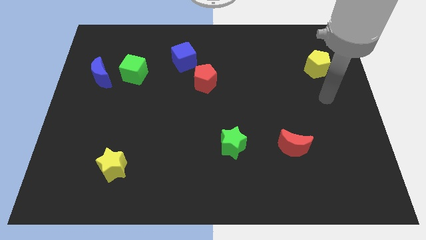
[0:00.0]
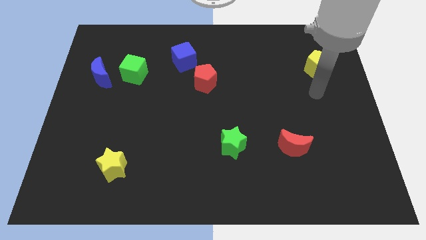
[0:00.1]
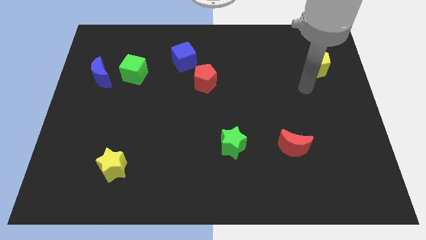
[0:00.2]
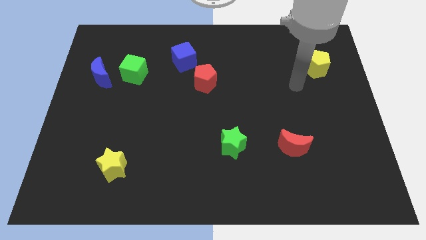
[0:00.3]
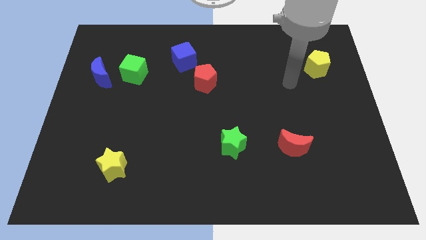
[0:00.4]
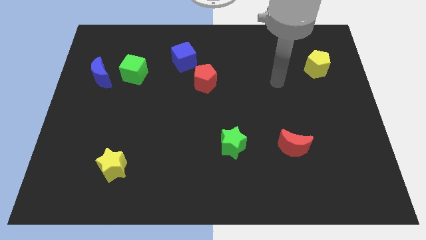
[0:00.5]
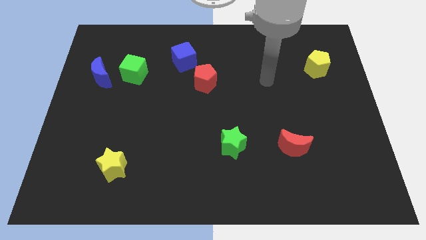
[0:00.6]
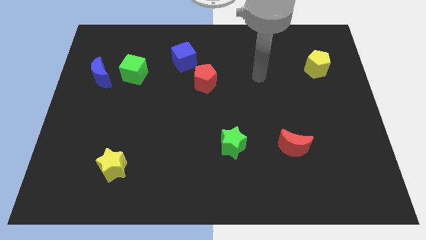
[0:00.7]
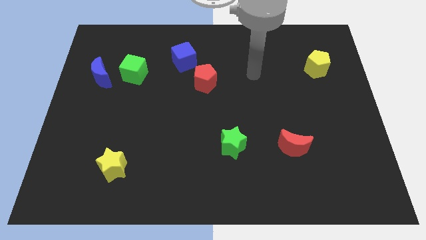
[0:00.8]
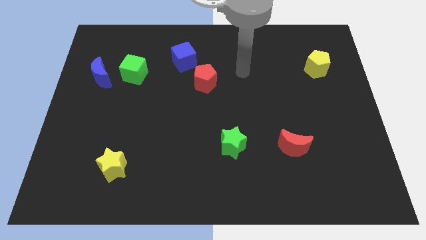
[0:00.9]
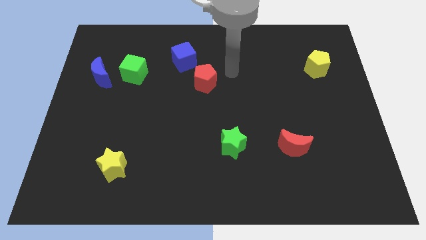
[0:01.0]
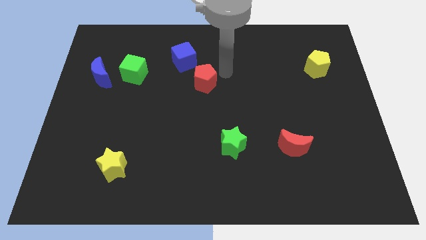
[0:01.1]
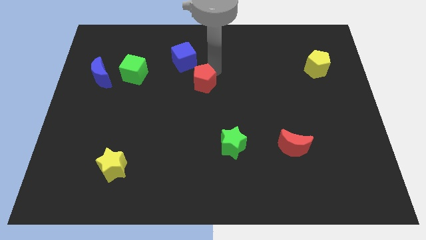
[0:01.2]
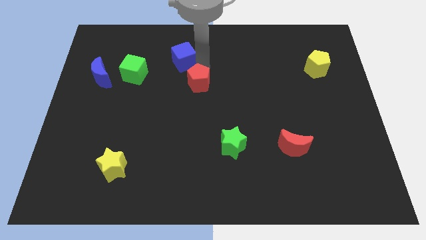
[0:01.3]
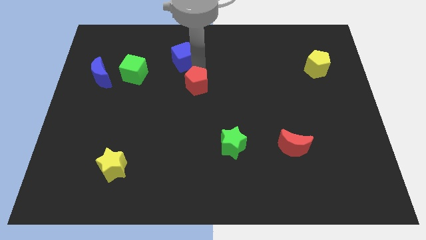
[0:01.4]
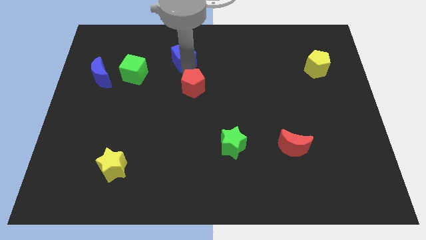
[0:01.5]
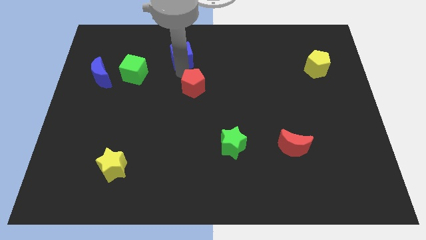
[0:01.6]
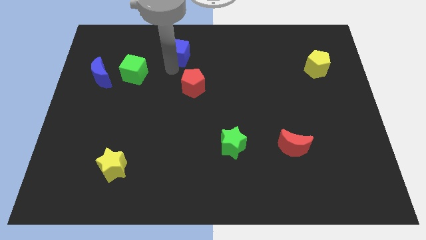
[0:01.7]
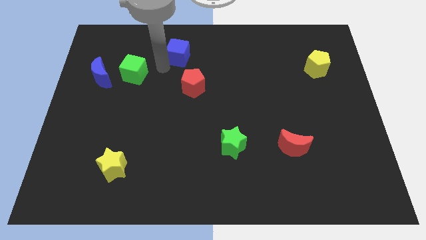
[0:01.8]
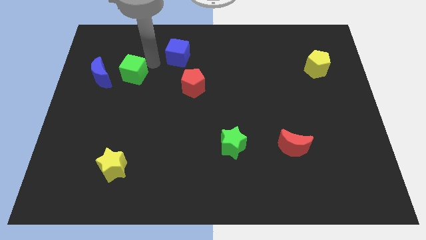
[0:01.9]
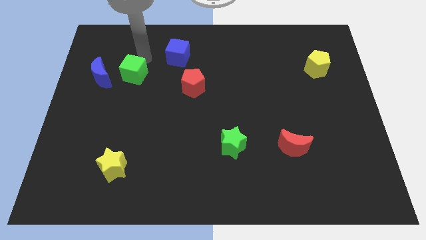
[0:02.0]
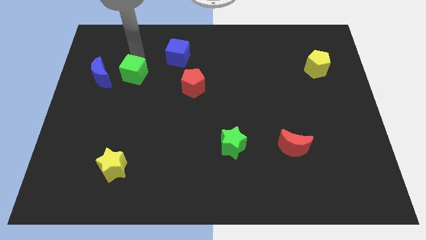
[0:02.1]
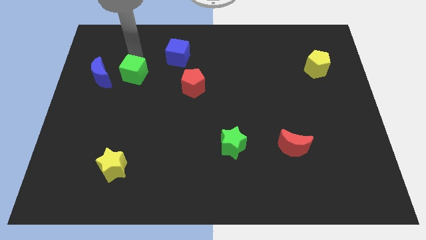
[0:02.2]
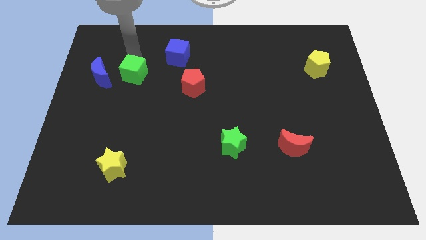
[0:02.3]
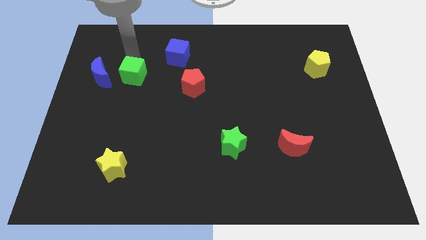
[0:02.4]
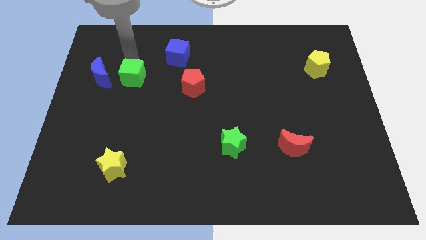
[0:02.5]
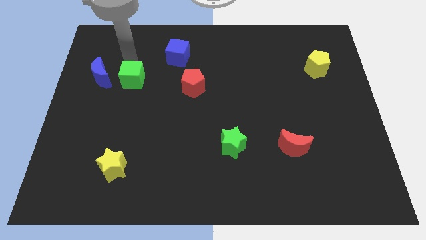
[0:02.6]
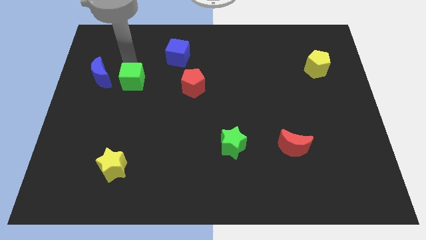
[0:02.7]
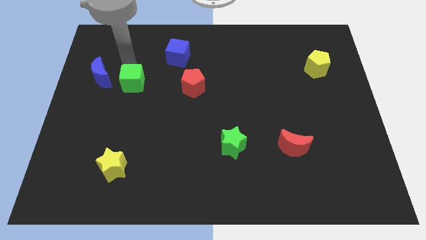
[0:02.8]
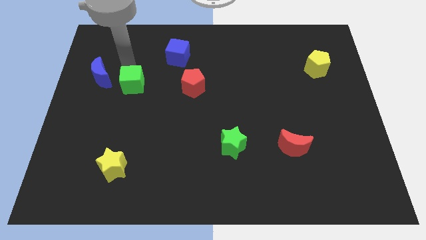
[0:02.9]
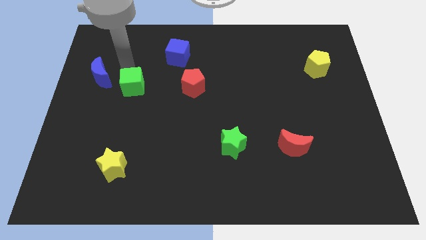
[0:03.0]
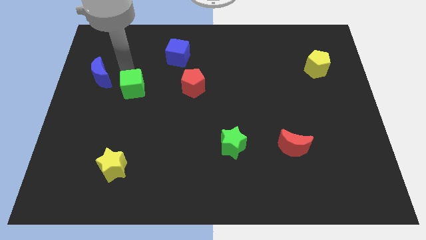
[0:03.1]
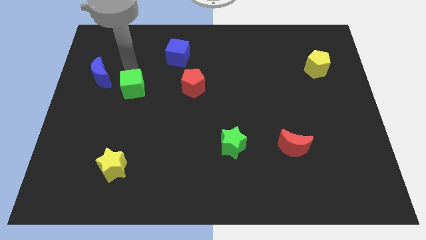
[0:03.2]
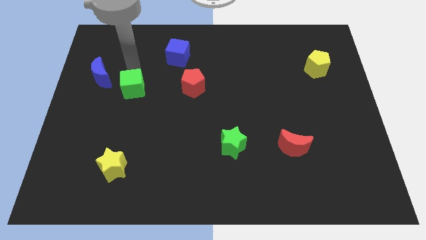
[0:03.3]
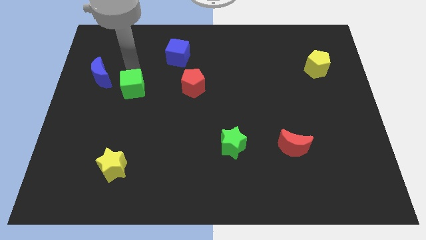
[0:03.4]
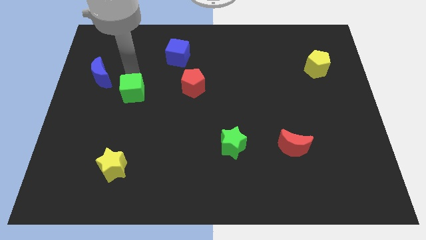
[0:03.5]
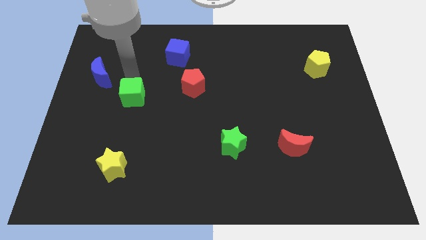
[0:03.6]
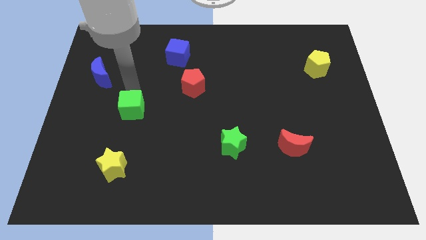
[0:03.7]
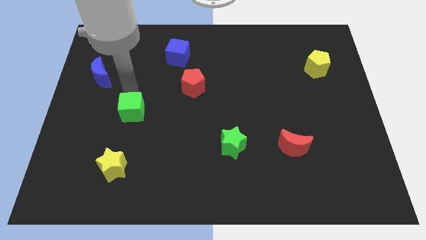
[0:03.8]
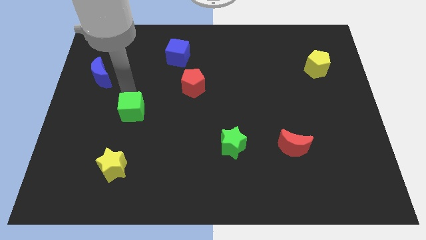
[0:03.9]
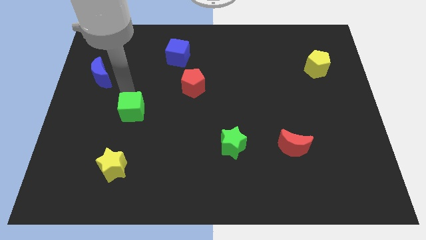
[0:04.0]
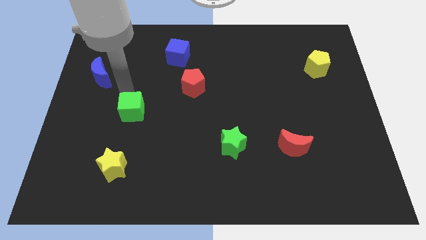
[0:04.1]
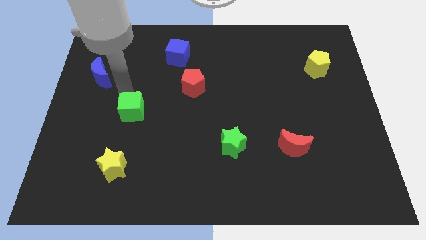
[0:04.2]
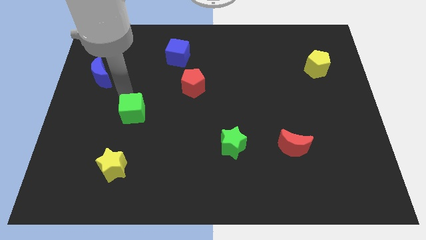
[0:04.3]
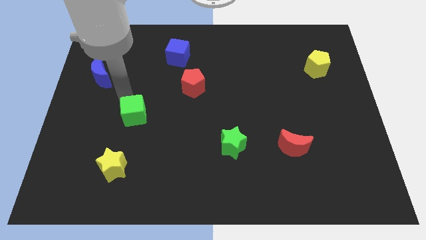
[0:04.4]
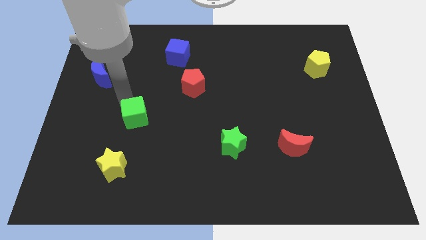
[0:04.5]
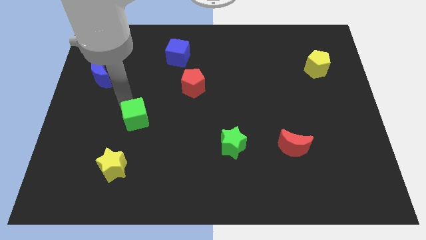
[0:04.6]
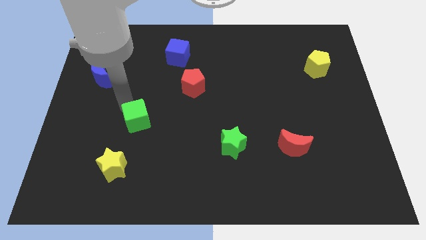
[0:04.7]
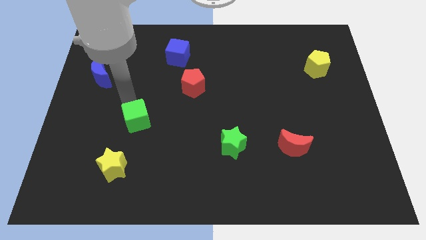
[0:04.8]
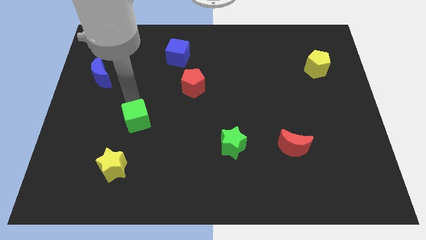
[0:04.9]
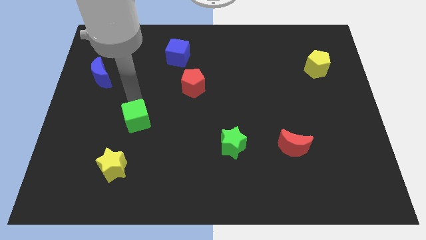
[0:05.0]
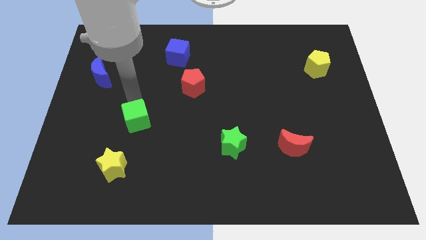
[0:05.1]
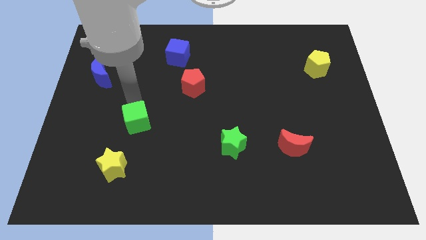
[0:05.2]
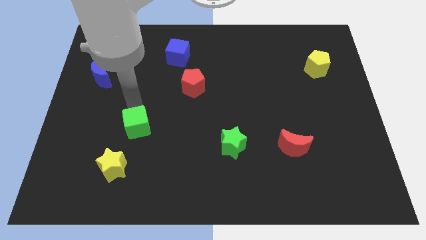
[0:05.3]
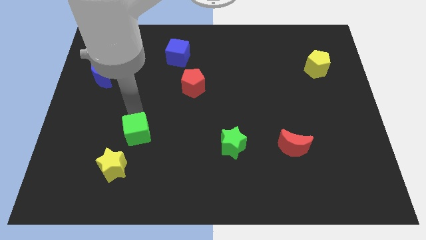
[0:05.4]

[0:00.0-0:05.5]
move the green cube to the top right of the yellow star

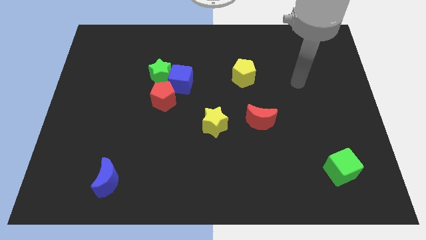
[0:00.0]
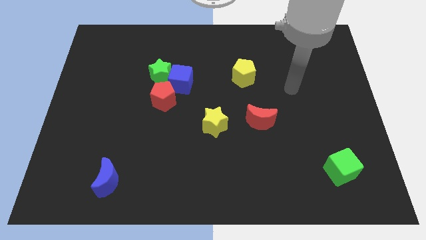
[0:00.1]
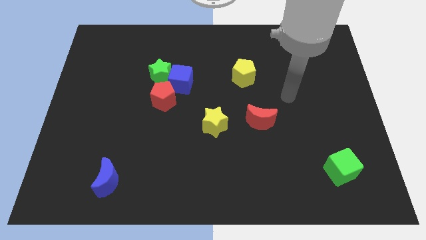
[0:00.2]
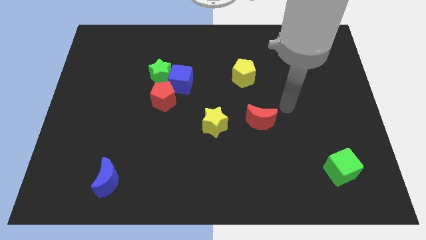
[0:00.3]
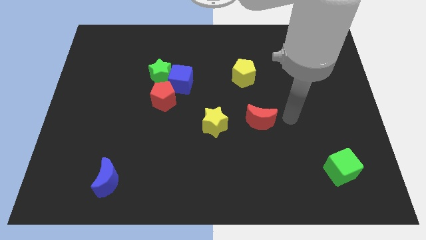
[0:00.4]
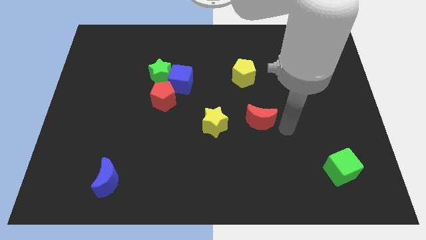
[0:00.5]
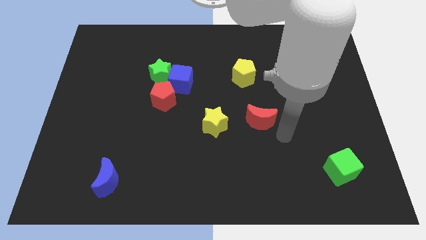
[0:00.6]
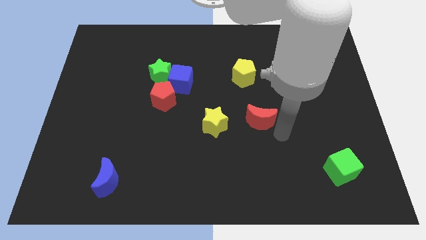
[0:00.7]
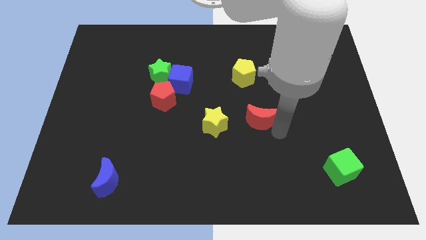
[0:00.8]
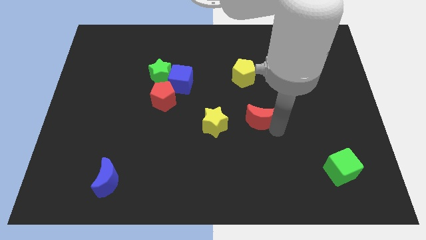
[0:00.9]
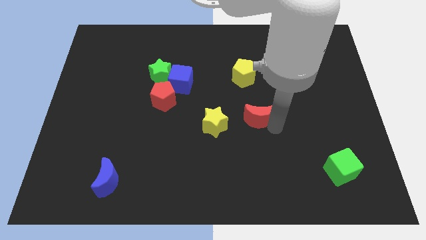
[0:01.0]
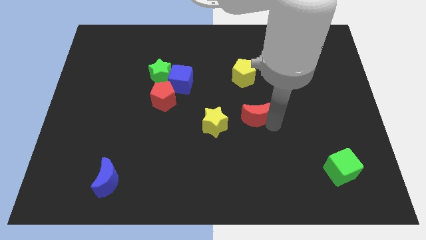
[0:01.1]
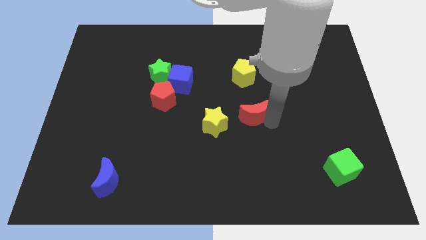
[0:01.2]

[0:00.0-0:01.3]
slide the red moon to the top right of the yellow star
